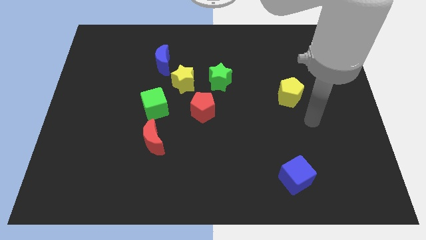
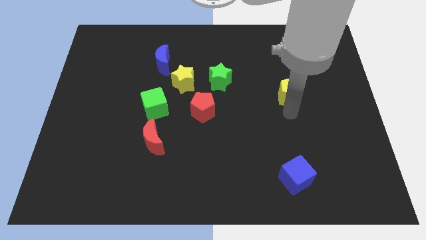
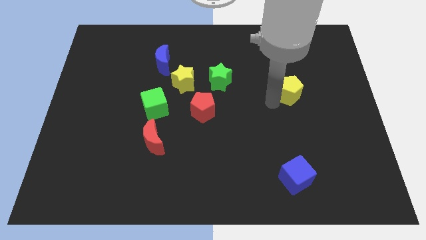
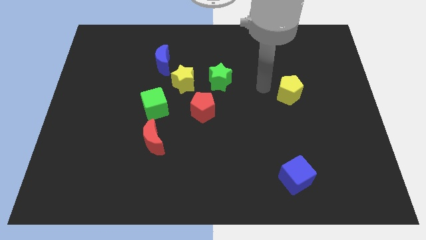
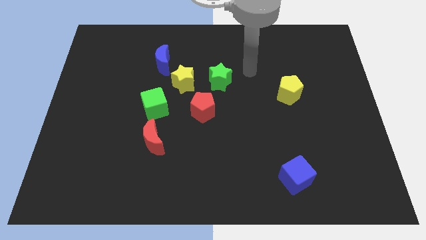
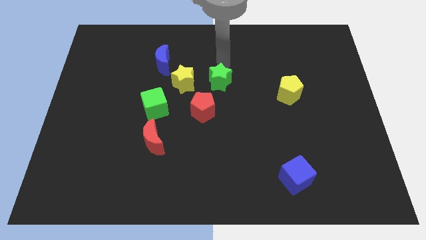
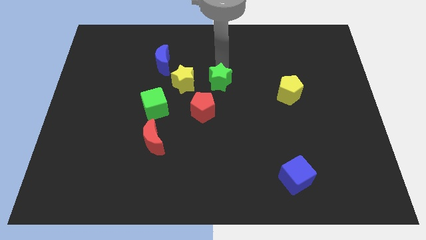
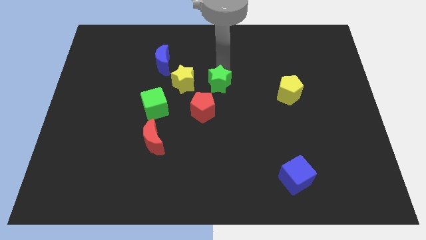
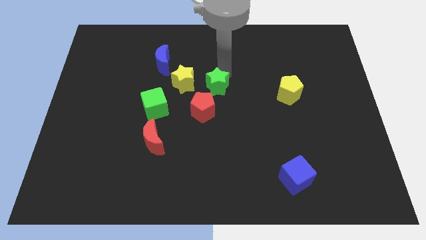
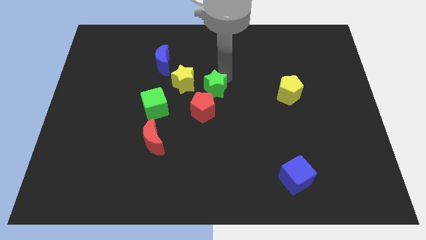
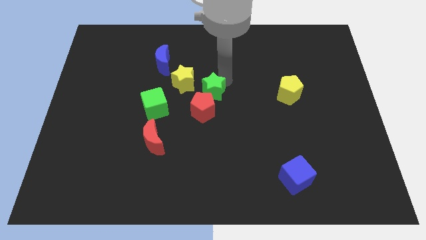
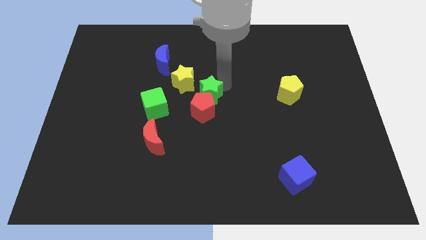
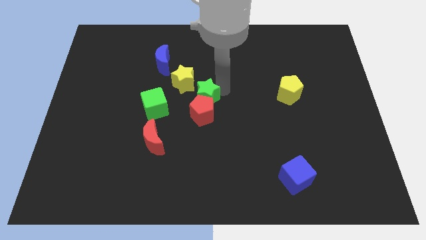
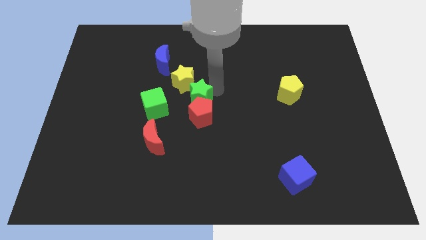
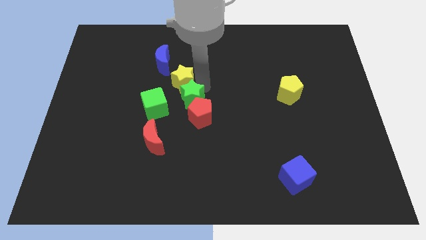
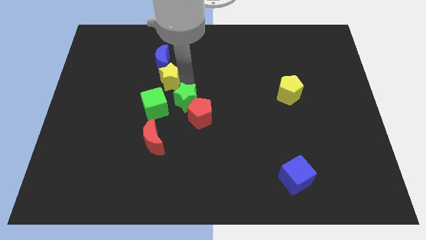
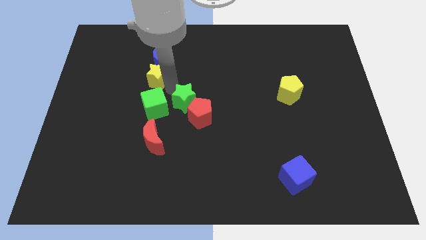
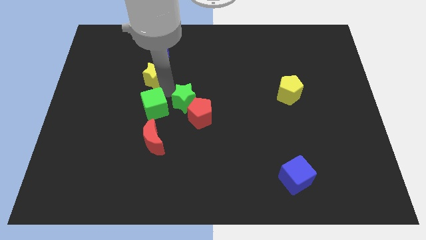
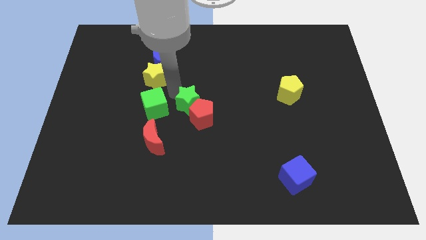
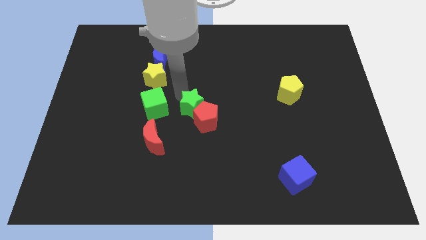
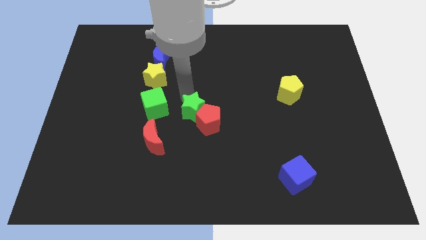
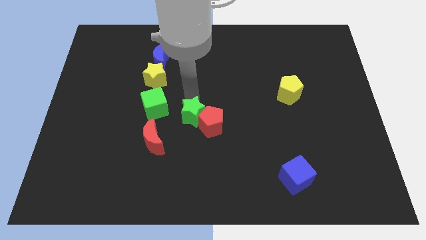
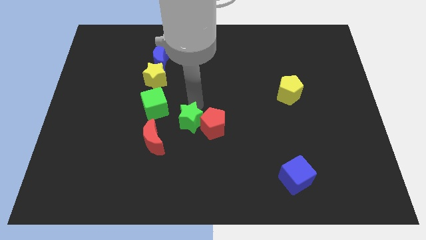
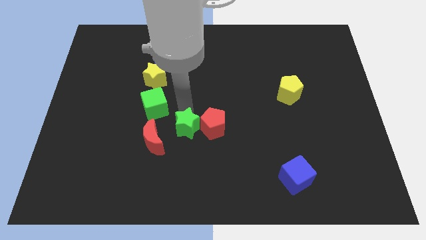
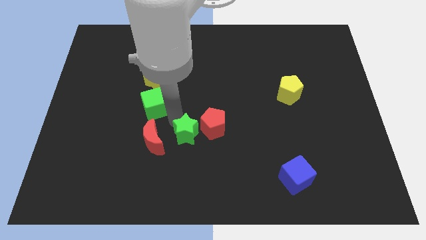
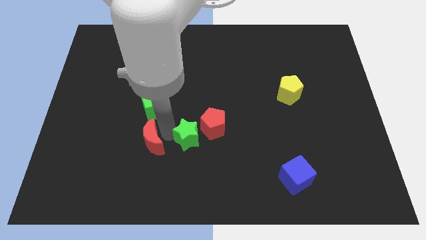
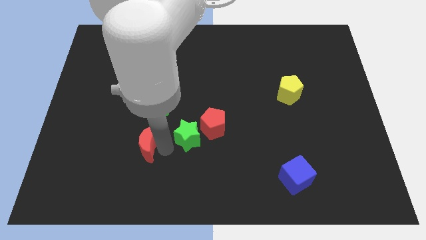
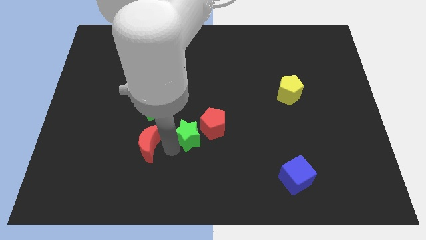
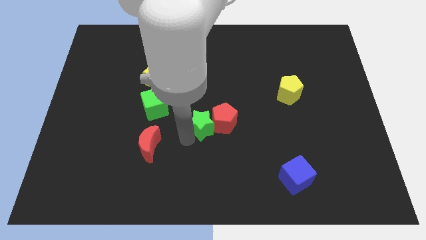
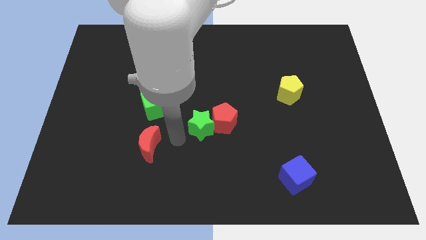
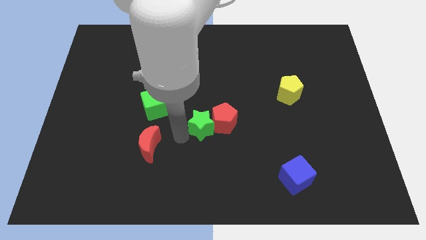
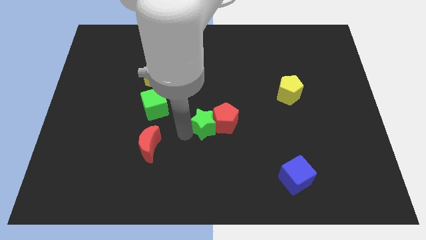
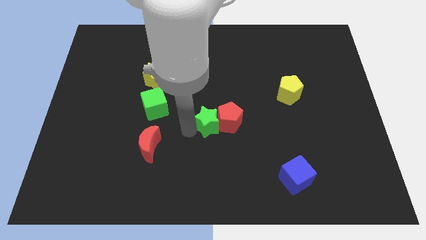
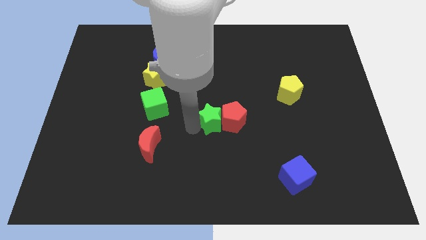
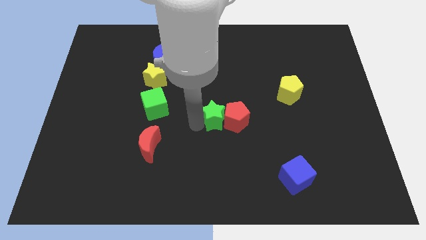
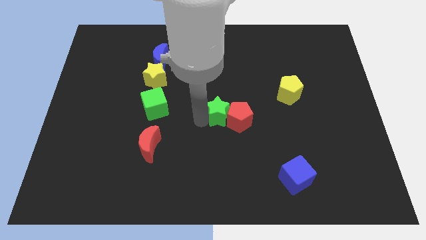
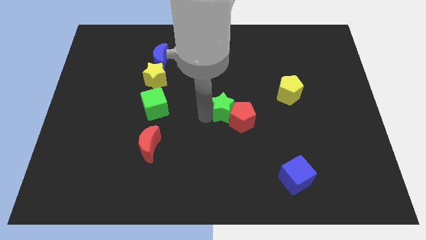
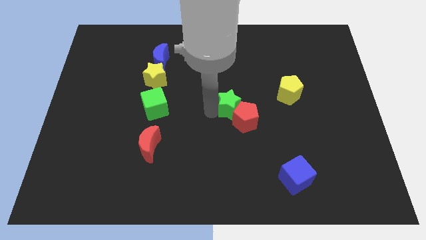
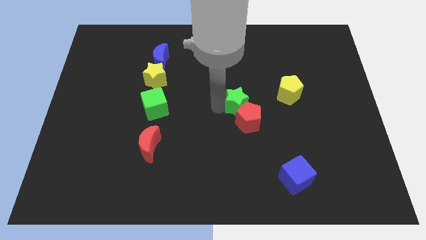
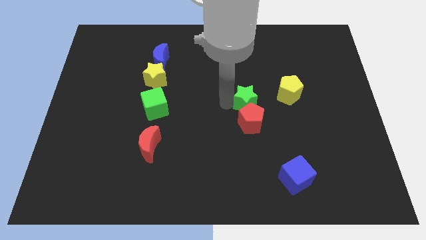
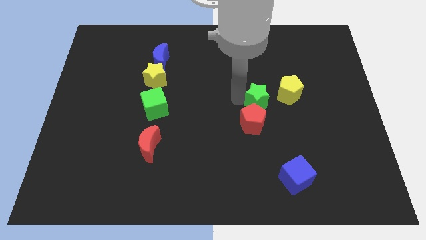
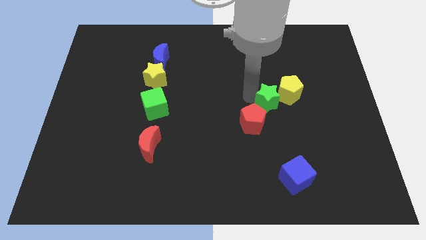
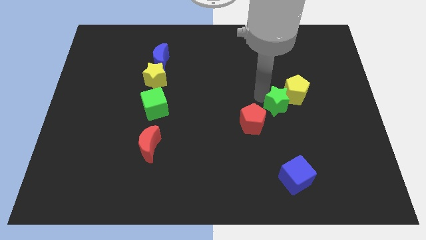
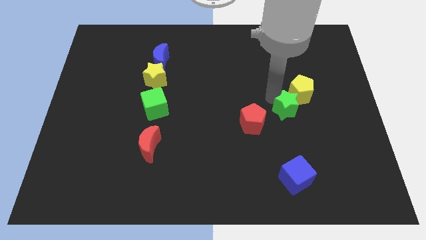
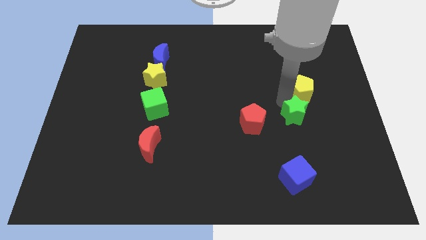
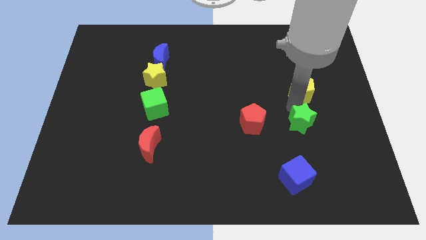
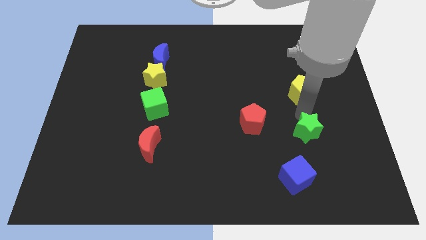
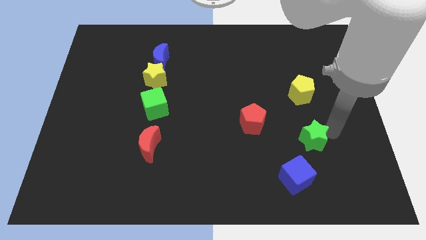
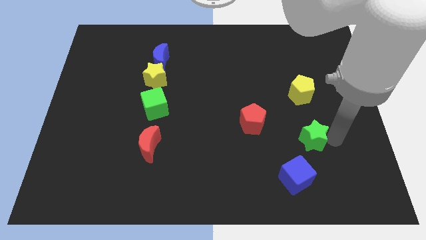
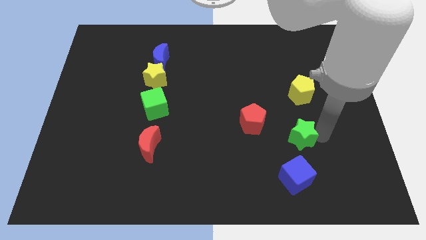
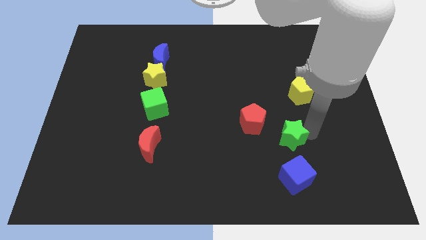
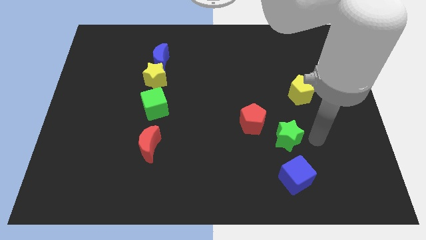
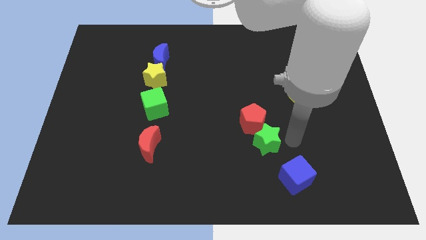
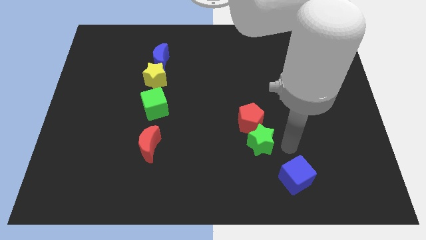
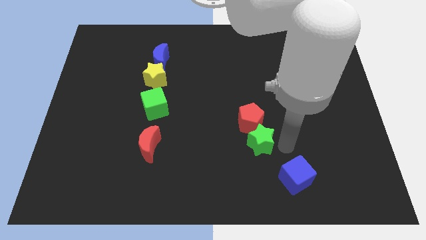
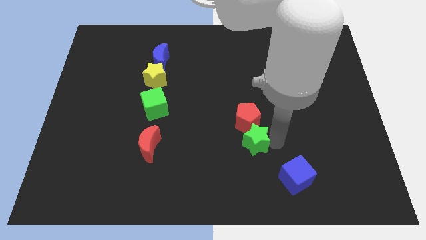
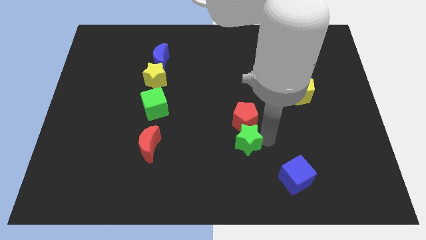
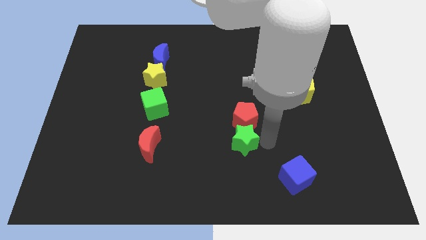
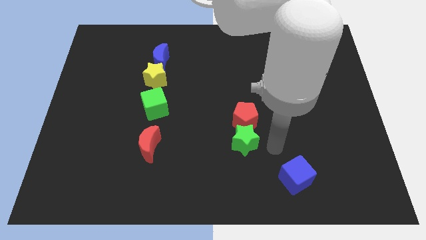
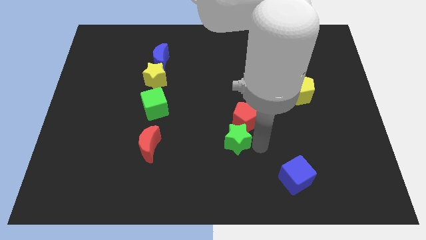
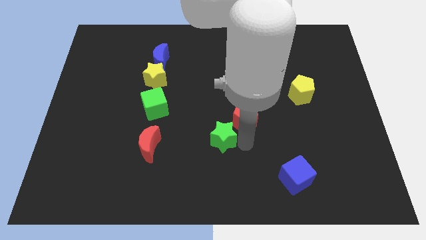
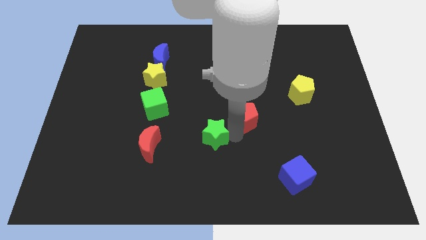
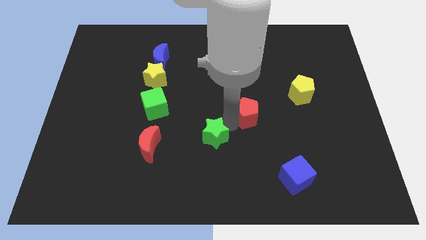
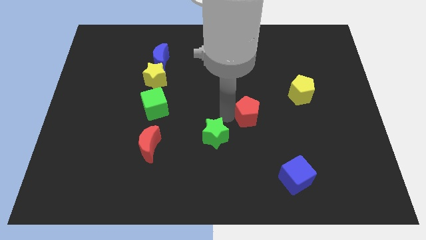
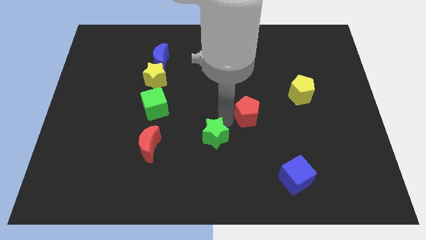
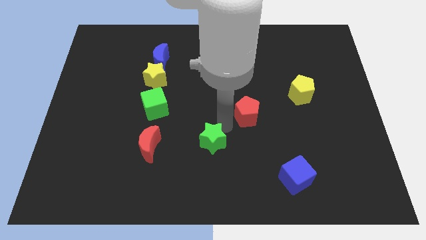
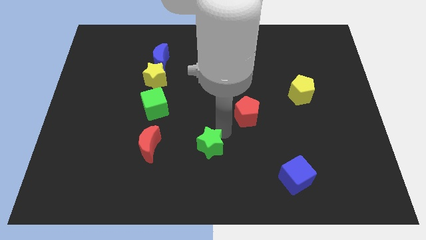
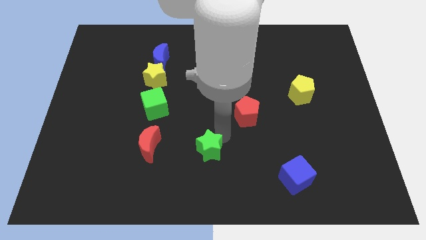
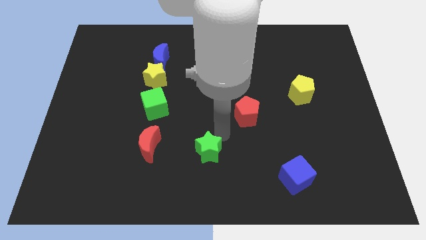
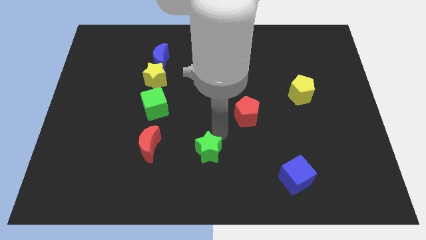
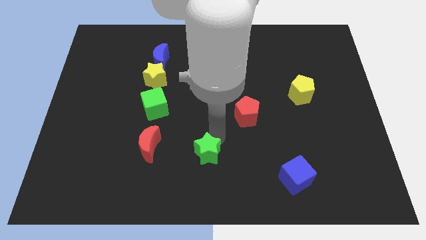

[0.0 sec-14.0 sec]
push the green star to the bottom side

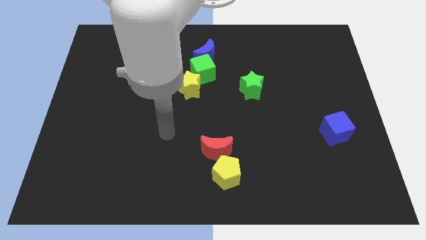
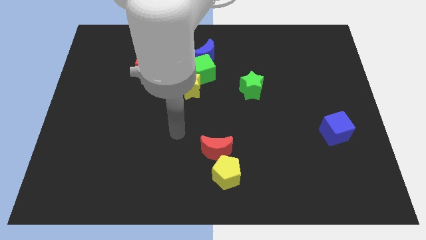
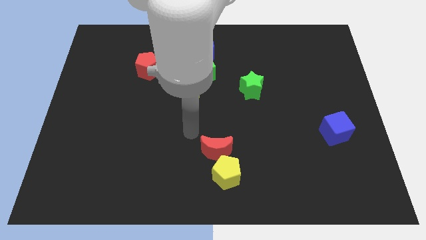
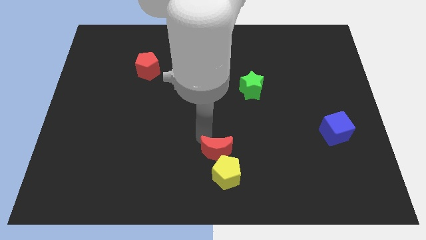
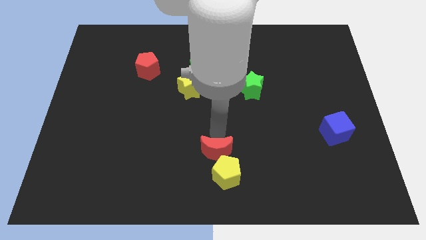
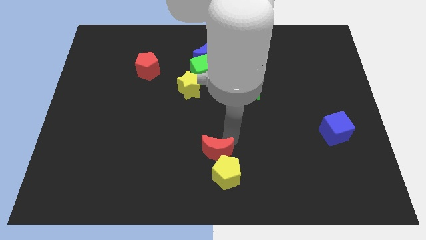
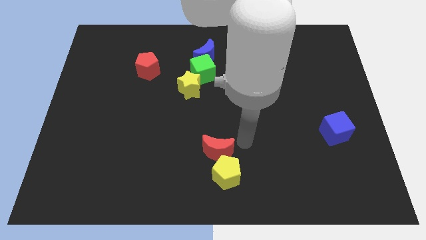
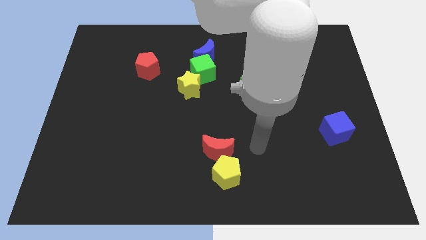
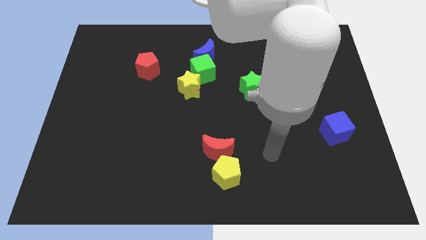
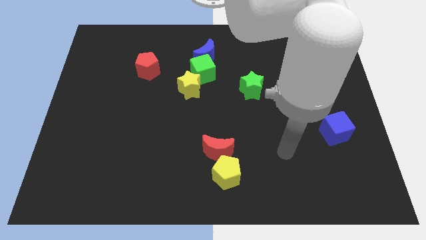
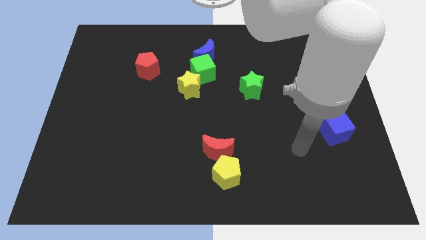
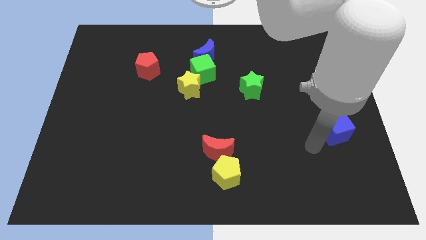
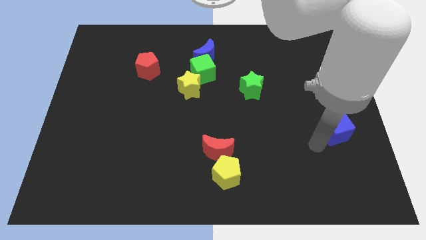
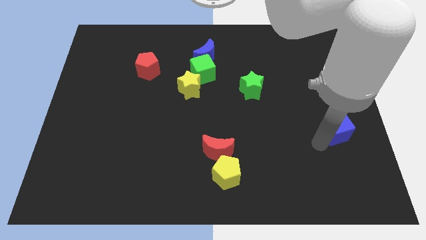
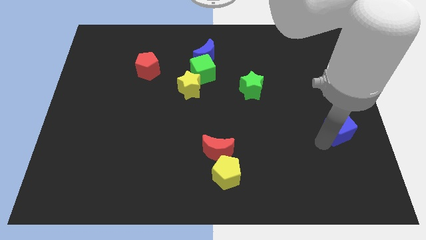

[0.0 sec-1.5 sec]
put the blue cube to the center right
